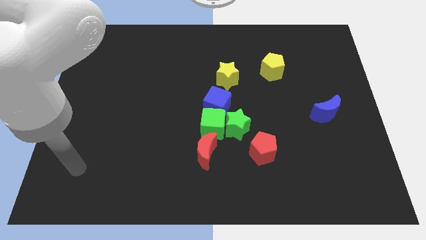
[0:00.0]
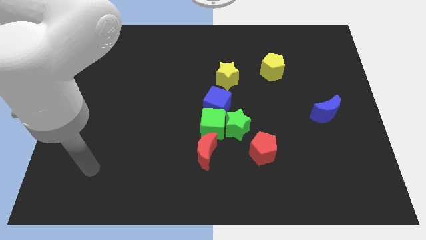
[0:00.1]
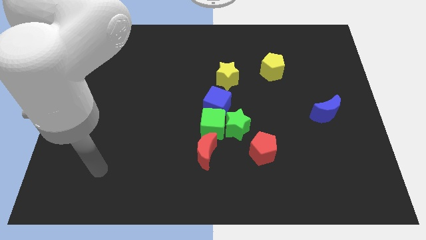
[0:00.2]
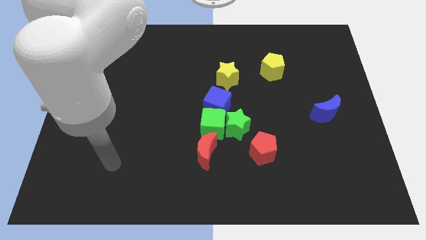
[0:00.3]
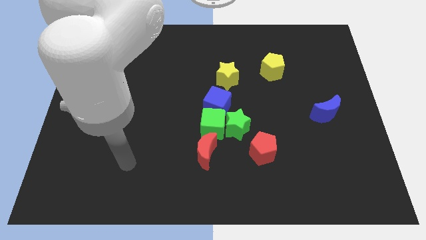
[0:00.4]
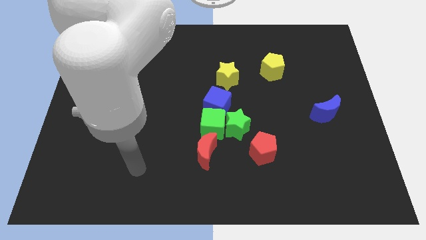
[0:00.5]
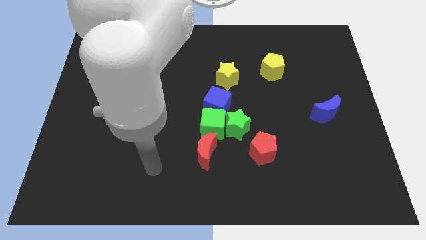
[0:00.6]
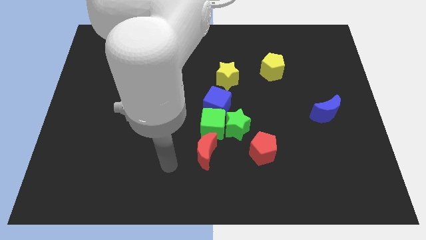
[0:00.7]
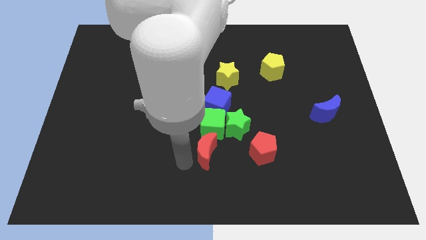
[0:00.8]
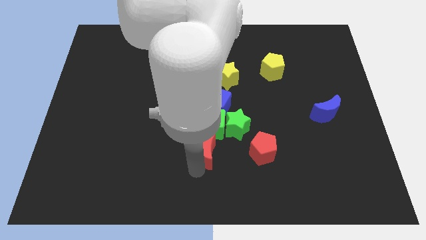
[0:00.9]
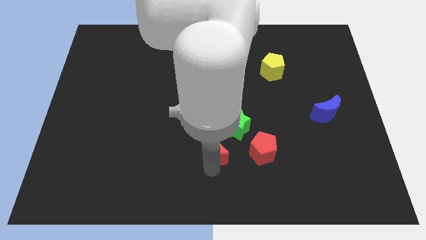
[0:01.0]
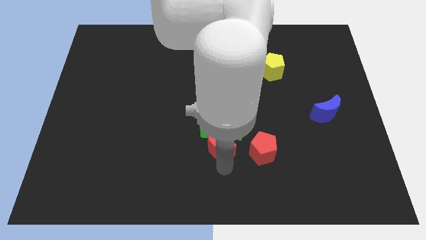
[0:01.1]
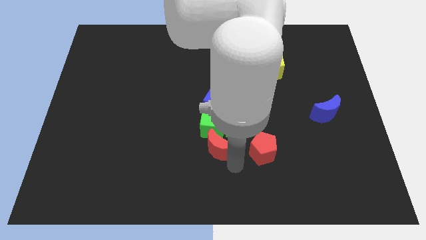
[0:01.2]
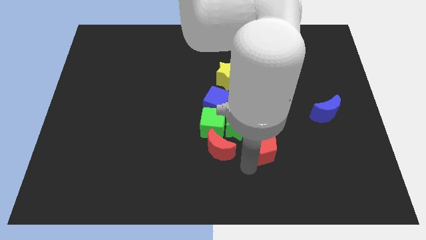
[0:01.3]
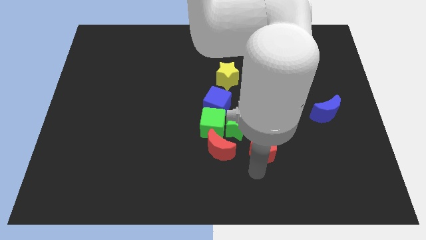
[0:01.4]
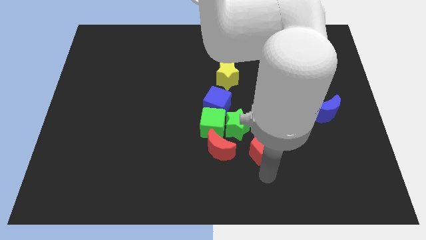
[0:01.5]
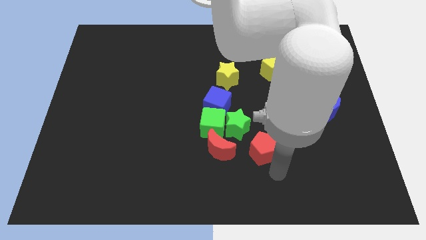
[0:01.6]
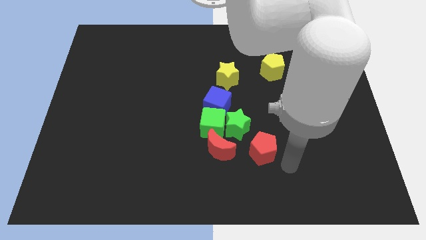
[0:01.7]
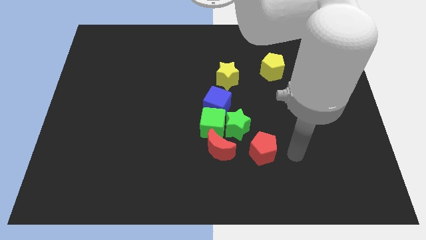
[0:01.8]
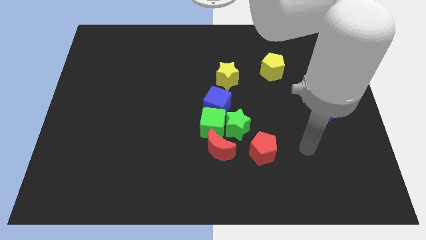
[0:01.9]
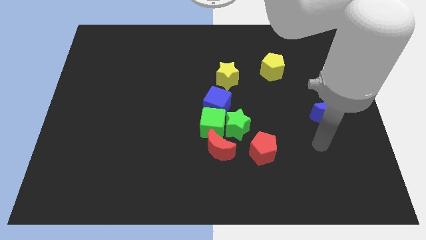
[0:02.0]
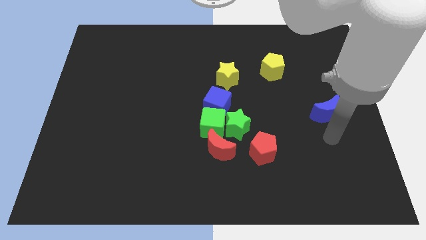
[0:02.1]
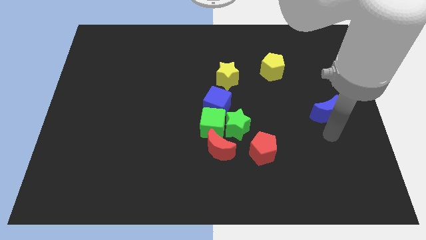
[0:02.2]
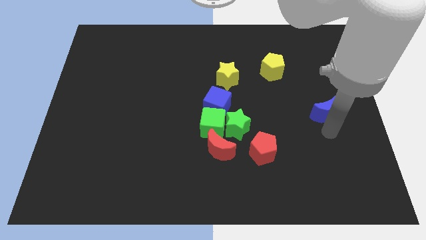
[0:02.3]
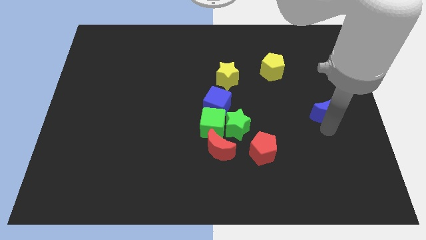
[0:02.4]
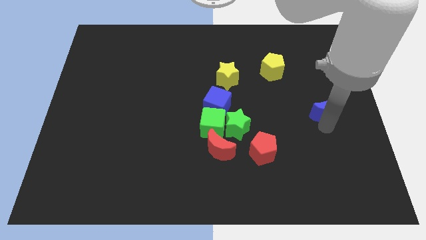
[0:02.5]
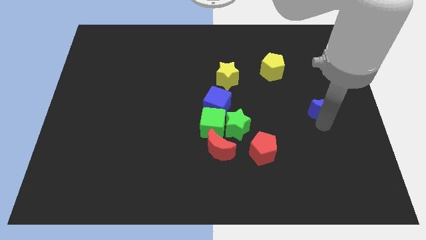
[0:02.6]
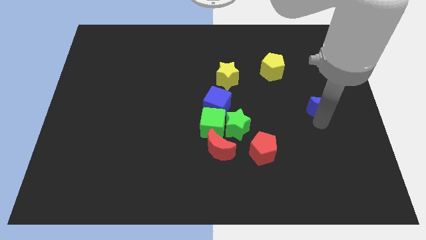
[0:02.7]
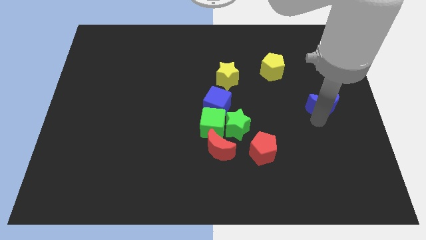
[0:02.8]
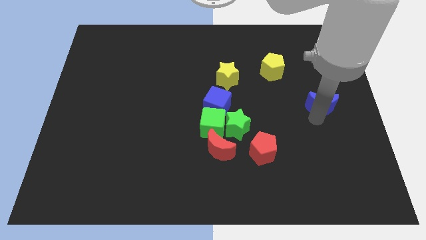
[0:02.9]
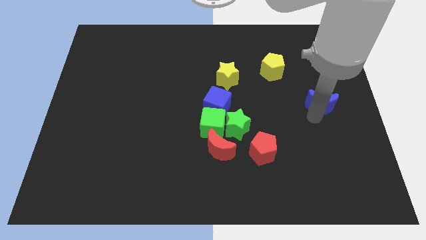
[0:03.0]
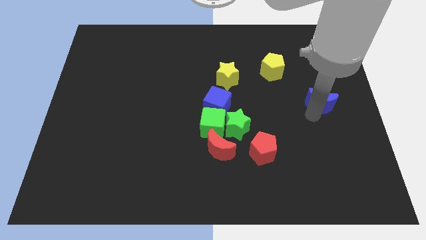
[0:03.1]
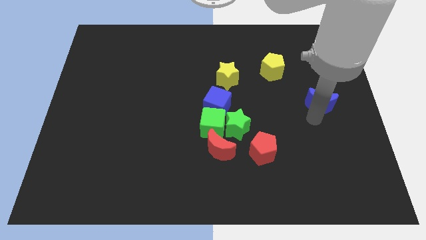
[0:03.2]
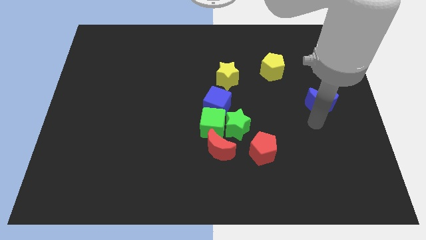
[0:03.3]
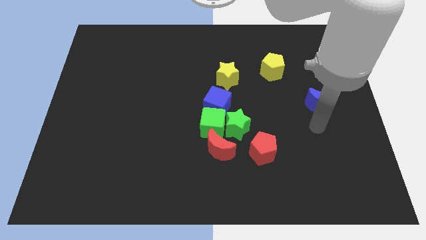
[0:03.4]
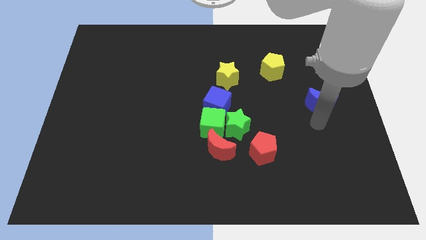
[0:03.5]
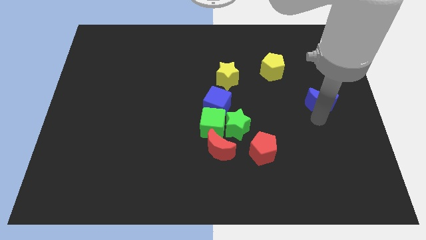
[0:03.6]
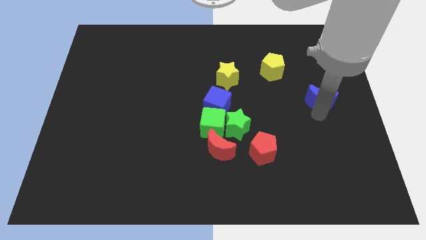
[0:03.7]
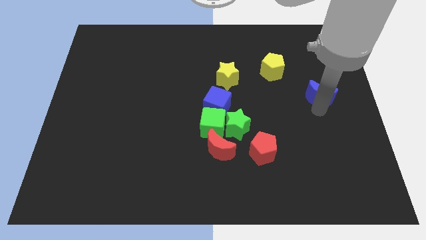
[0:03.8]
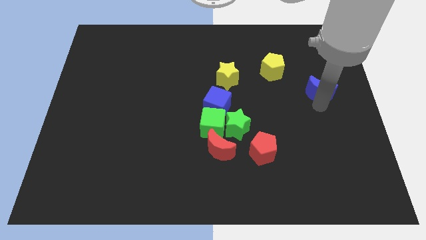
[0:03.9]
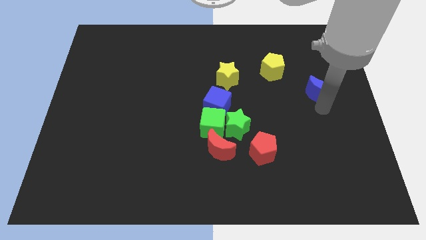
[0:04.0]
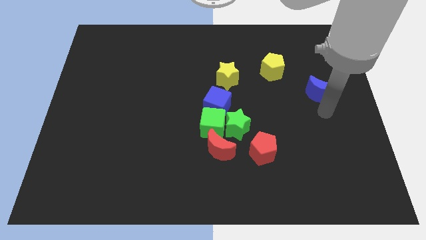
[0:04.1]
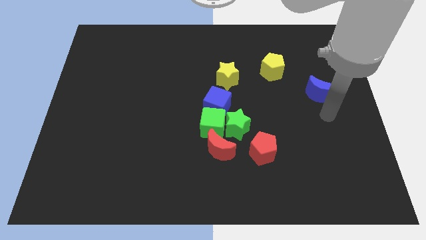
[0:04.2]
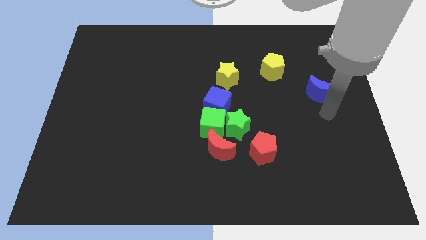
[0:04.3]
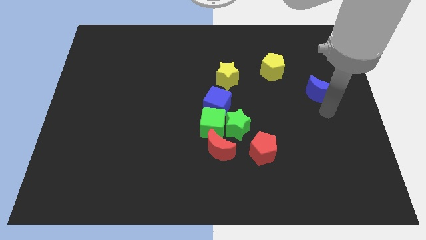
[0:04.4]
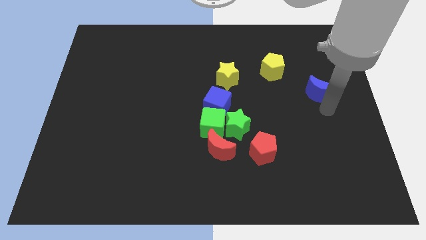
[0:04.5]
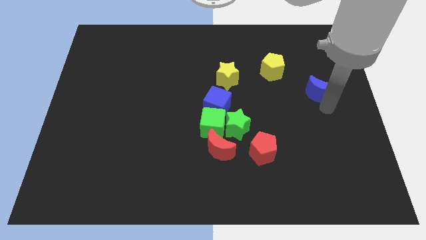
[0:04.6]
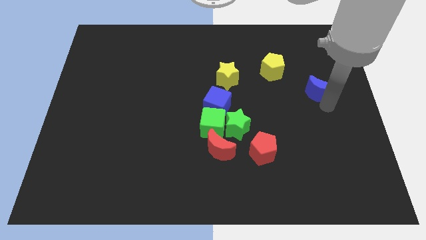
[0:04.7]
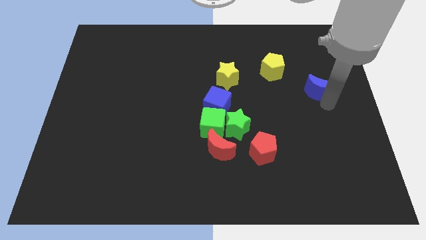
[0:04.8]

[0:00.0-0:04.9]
slightly slide the blue moon up

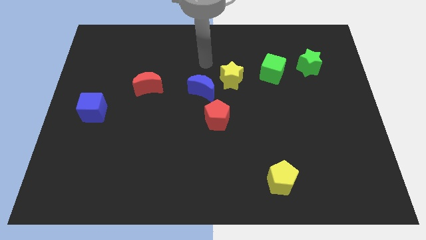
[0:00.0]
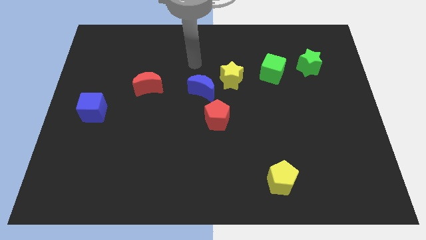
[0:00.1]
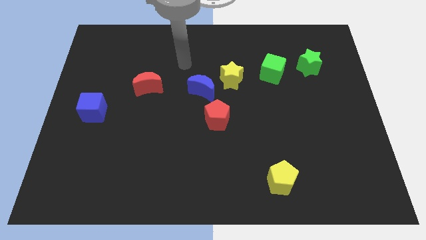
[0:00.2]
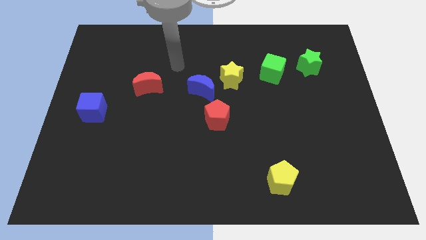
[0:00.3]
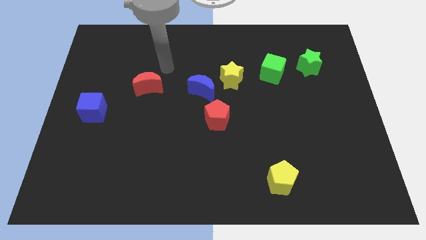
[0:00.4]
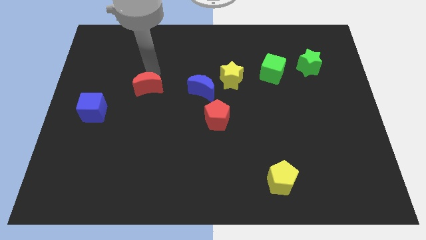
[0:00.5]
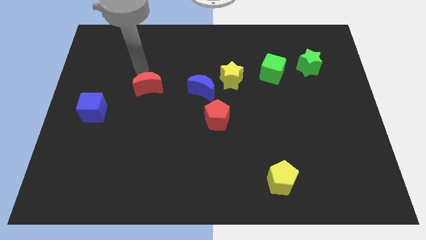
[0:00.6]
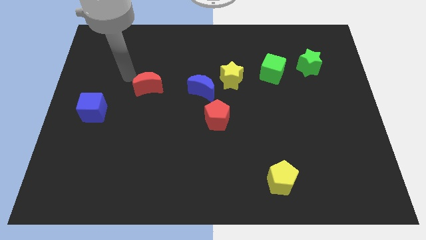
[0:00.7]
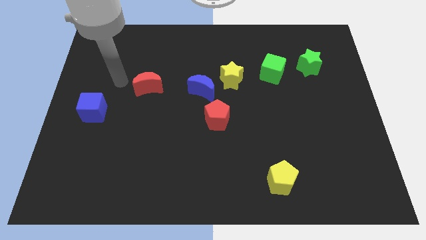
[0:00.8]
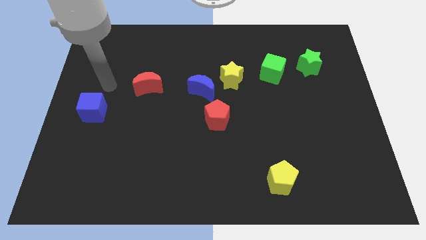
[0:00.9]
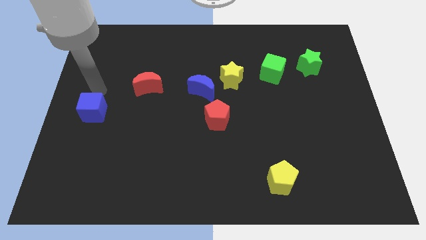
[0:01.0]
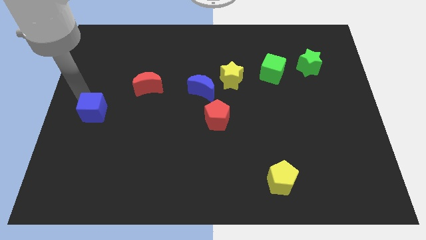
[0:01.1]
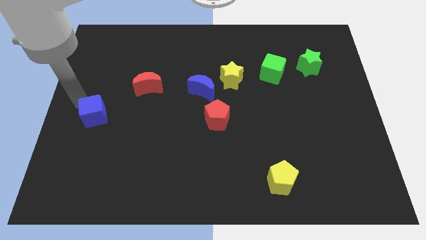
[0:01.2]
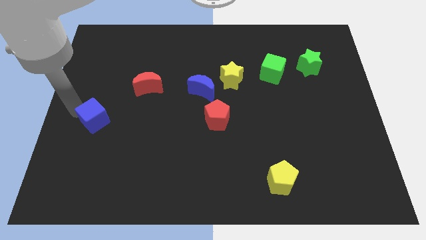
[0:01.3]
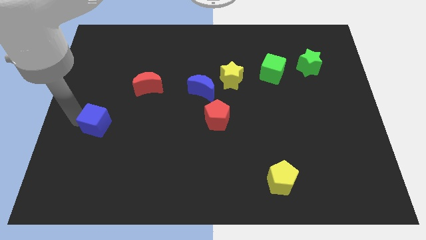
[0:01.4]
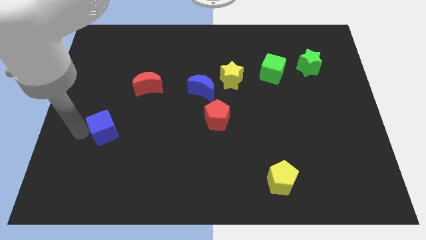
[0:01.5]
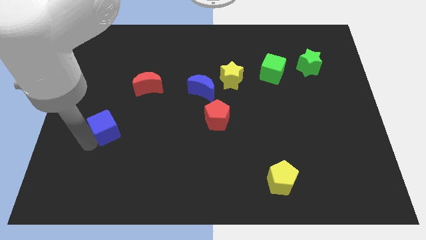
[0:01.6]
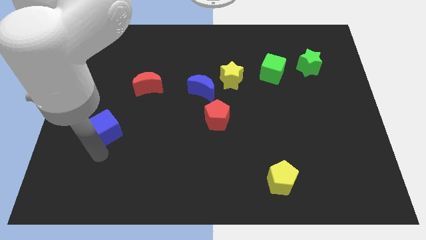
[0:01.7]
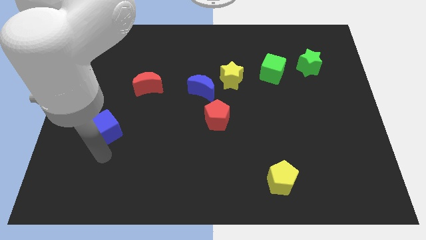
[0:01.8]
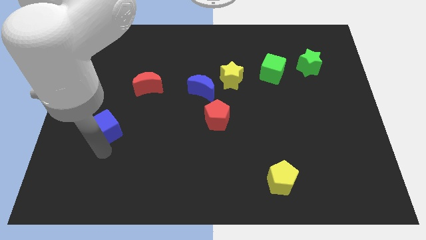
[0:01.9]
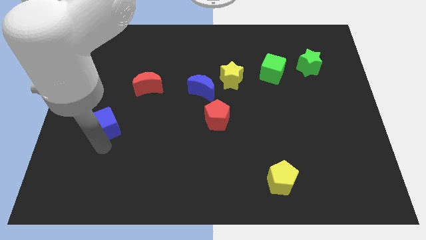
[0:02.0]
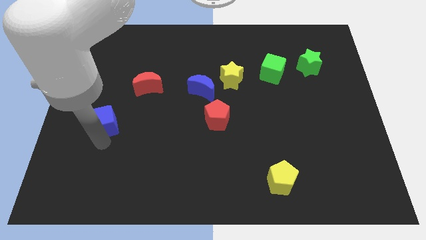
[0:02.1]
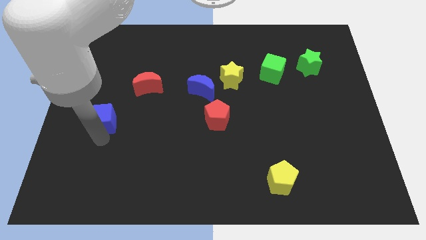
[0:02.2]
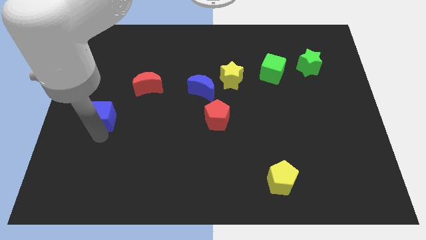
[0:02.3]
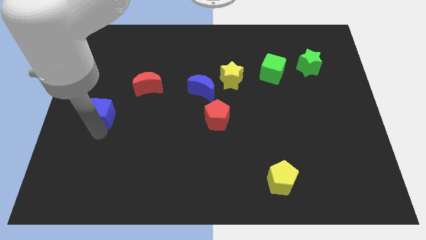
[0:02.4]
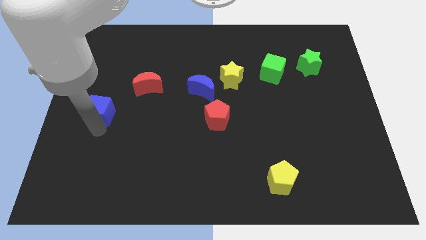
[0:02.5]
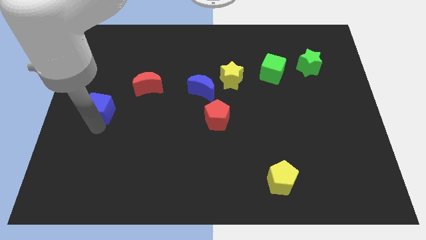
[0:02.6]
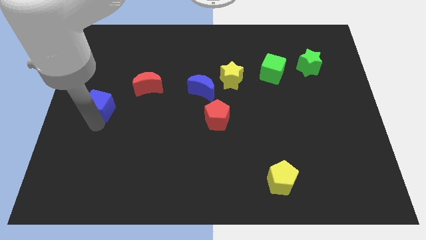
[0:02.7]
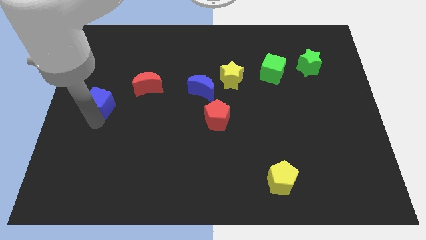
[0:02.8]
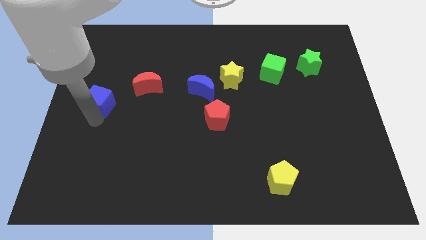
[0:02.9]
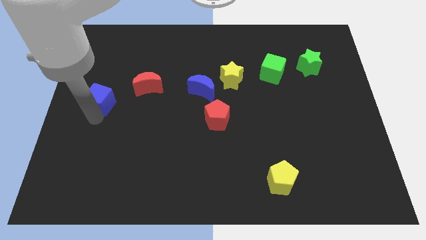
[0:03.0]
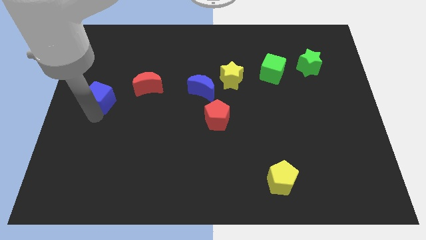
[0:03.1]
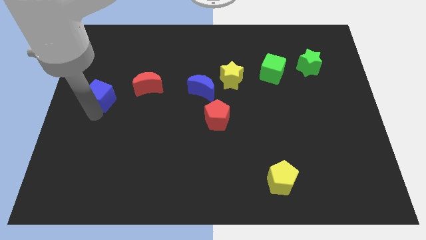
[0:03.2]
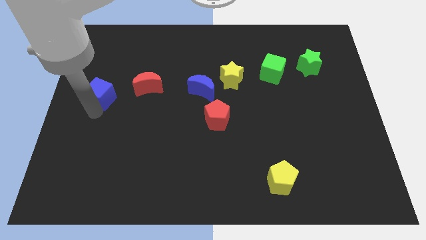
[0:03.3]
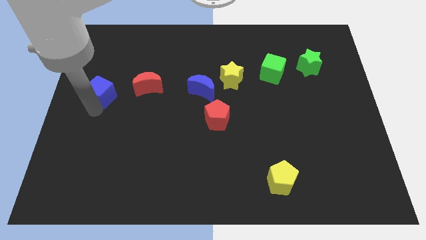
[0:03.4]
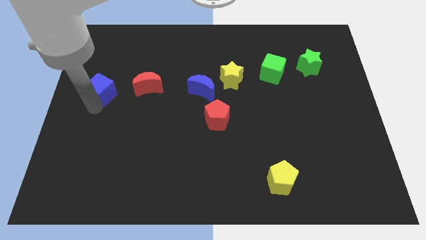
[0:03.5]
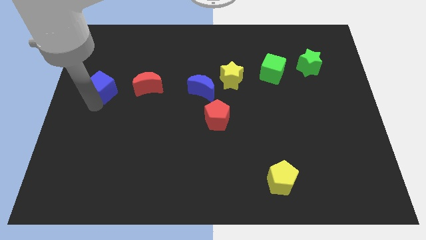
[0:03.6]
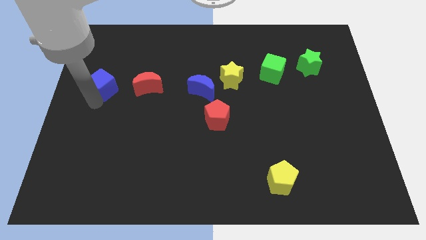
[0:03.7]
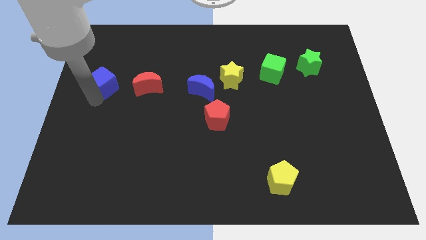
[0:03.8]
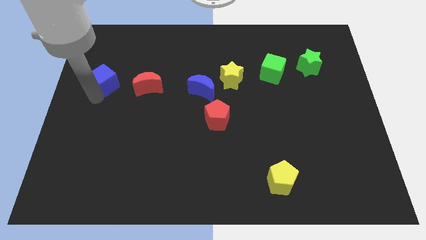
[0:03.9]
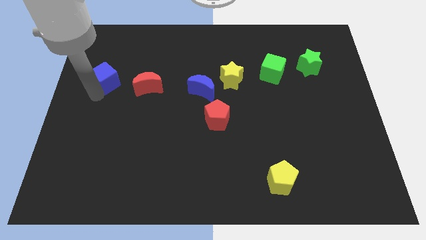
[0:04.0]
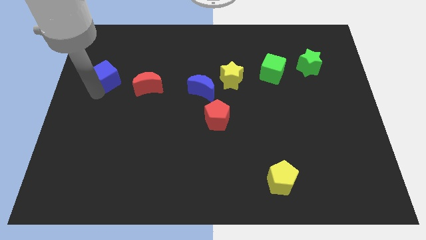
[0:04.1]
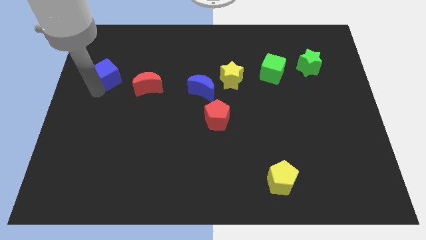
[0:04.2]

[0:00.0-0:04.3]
move the blue cube upwards and to the right slightly
